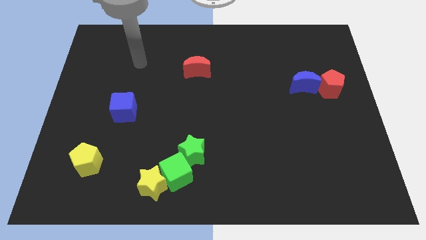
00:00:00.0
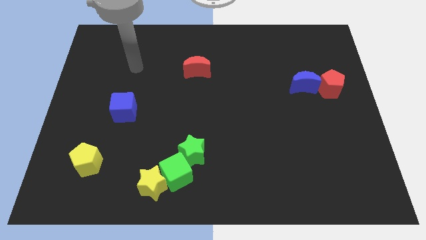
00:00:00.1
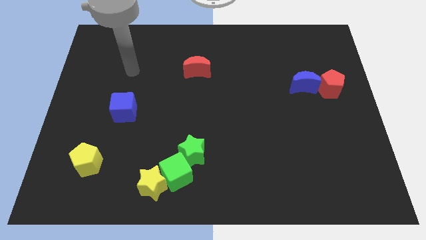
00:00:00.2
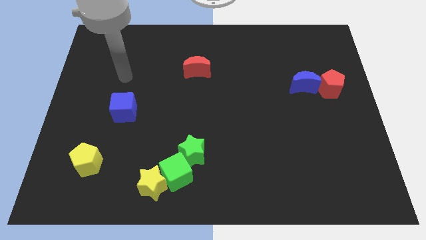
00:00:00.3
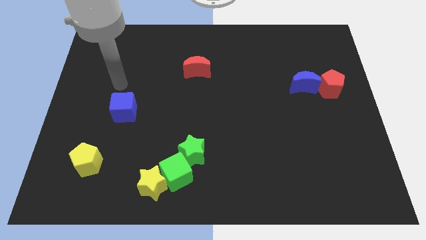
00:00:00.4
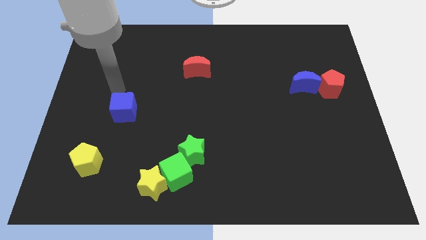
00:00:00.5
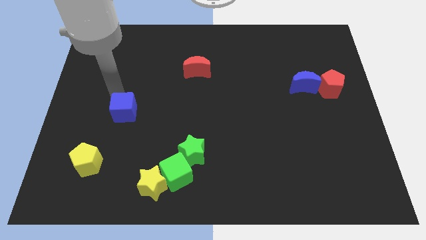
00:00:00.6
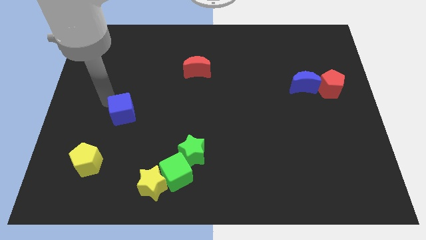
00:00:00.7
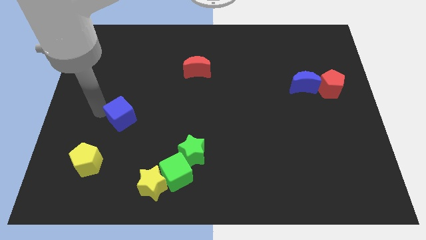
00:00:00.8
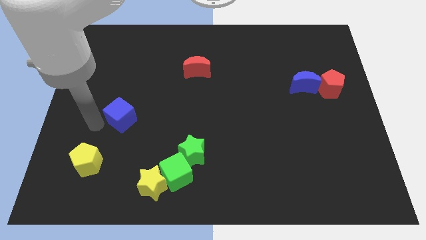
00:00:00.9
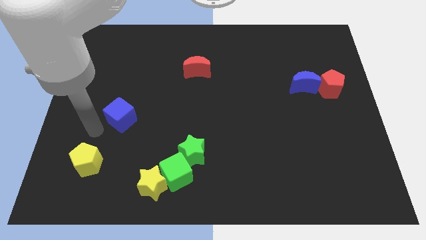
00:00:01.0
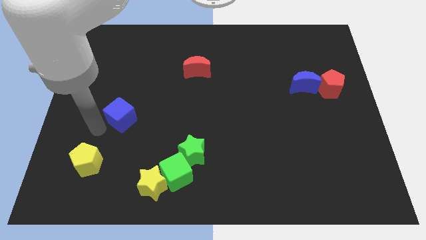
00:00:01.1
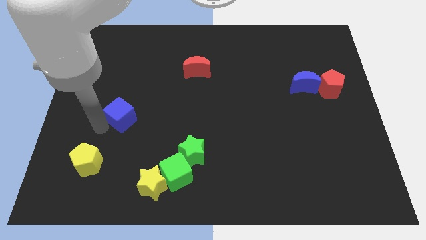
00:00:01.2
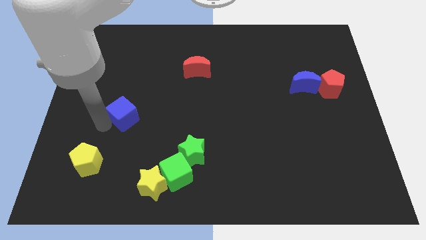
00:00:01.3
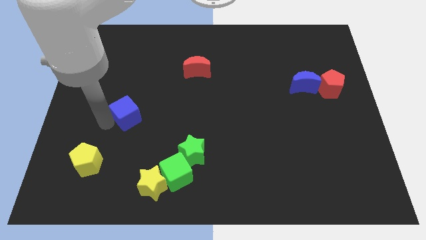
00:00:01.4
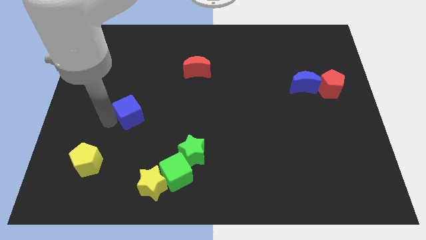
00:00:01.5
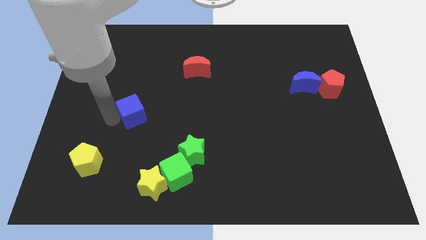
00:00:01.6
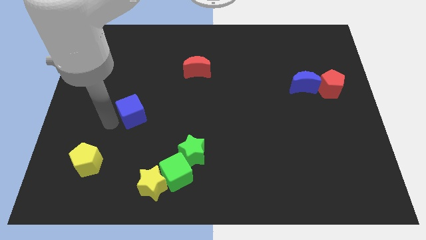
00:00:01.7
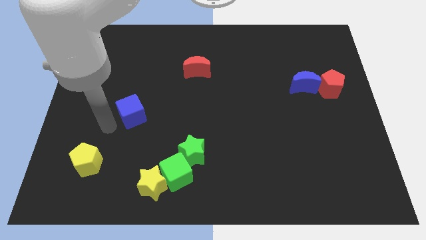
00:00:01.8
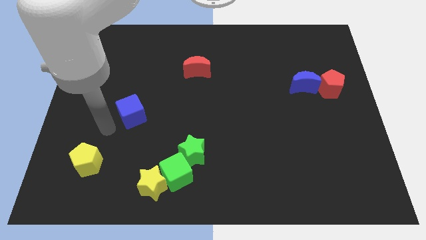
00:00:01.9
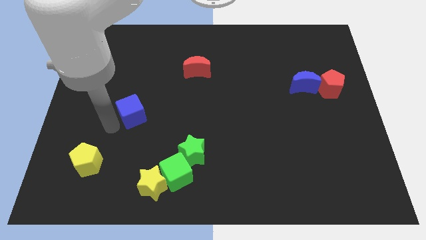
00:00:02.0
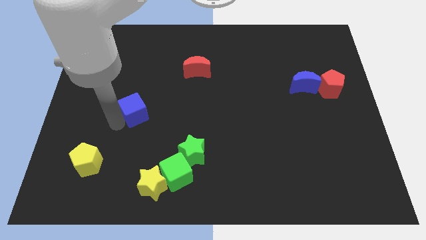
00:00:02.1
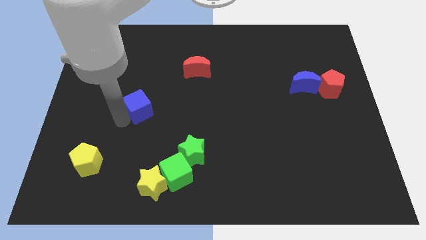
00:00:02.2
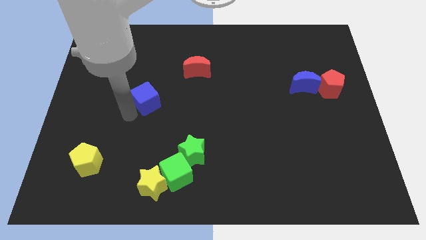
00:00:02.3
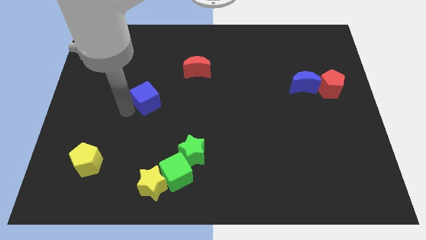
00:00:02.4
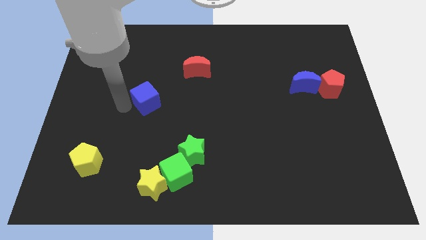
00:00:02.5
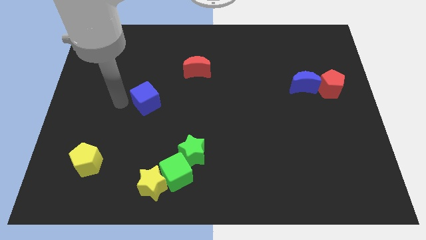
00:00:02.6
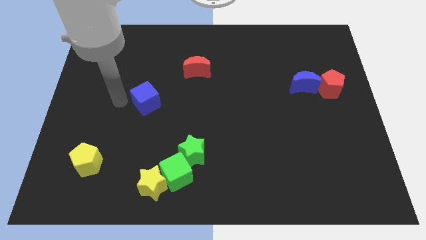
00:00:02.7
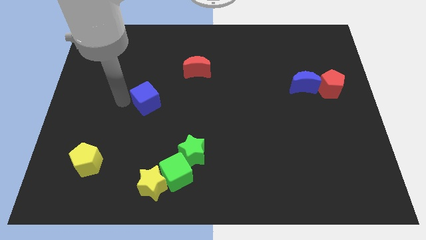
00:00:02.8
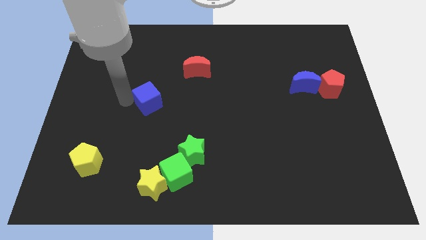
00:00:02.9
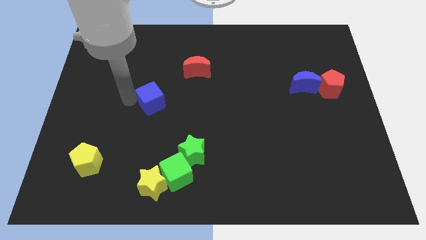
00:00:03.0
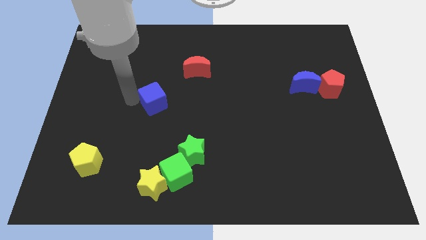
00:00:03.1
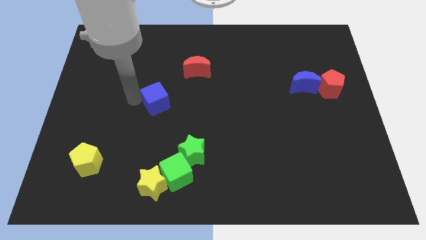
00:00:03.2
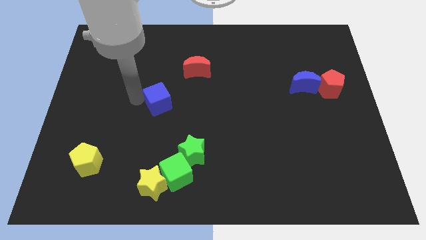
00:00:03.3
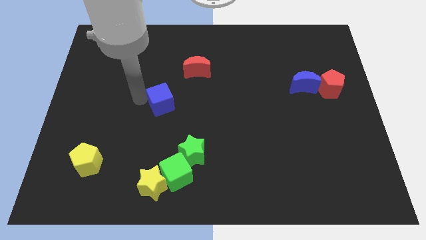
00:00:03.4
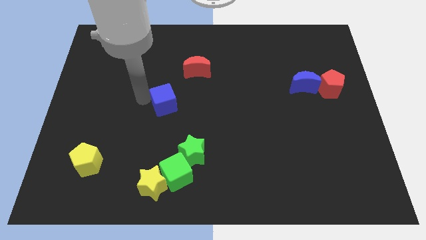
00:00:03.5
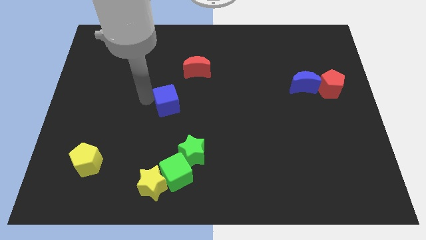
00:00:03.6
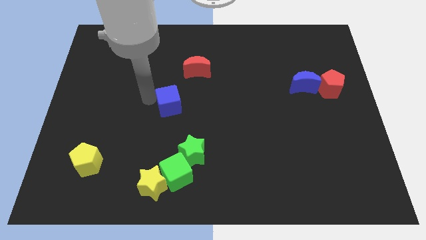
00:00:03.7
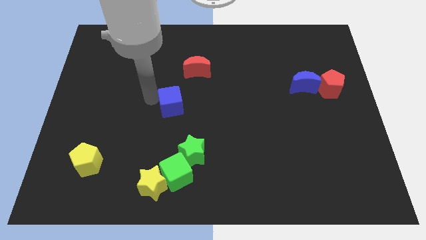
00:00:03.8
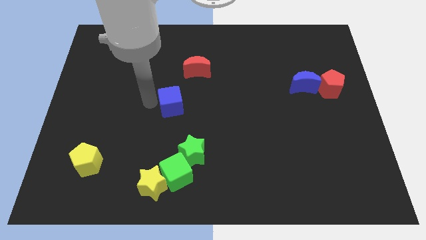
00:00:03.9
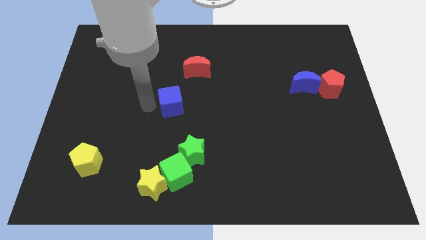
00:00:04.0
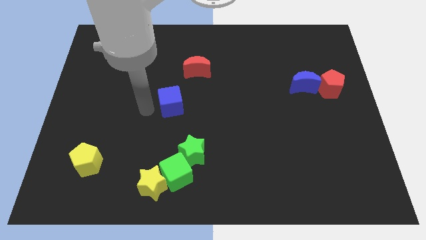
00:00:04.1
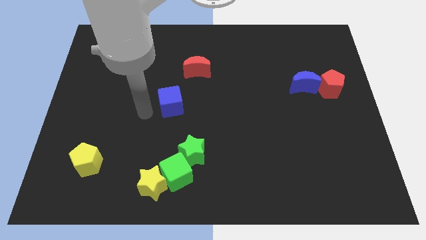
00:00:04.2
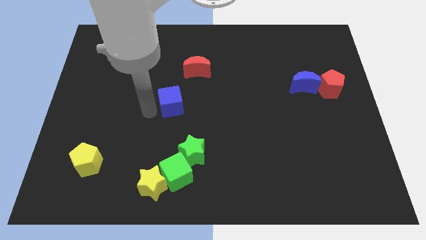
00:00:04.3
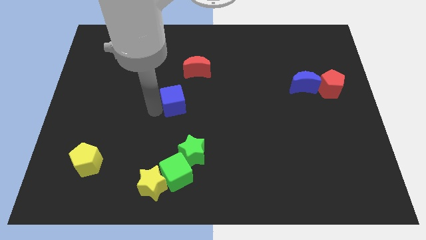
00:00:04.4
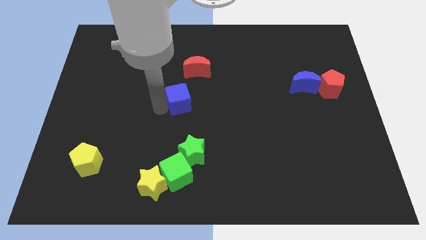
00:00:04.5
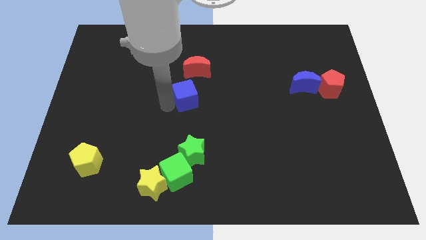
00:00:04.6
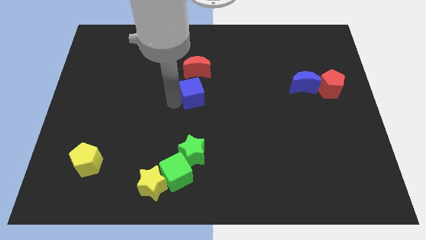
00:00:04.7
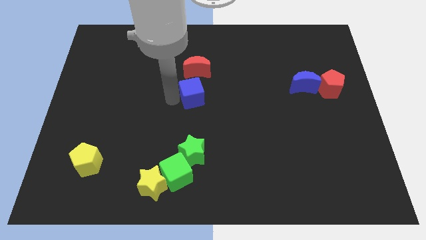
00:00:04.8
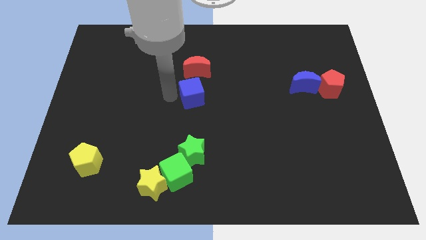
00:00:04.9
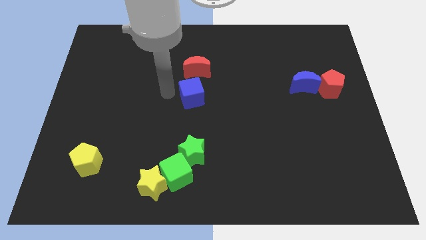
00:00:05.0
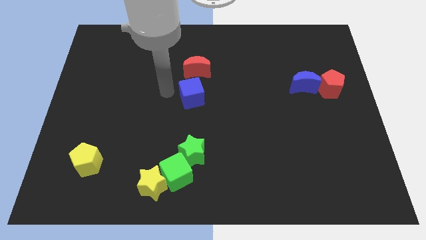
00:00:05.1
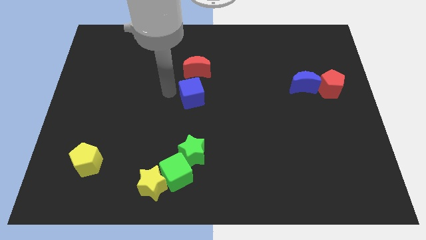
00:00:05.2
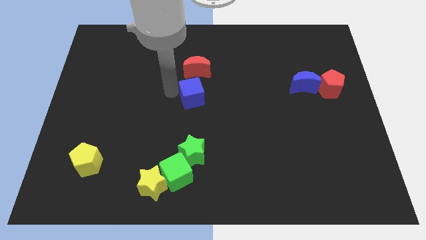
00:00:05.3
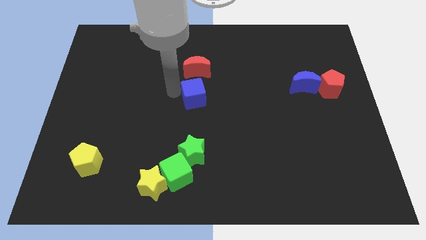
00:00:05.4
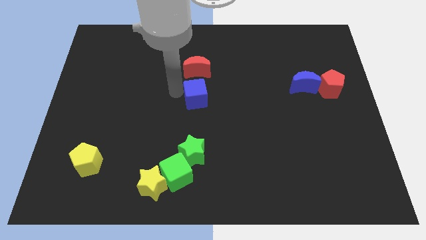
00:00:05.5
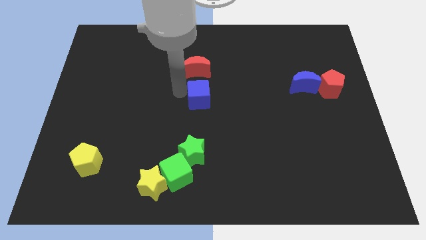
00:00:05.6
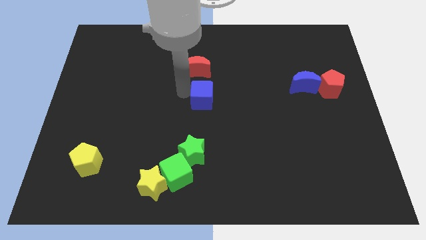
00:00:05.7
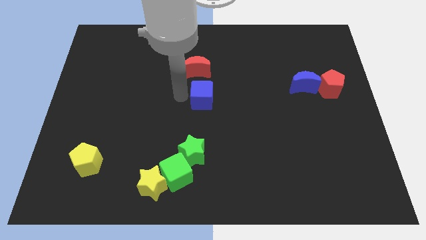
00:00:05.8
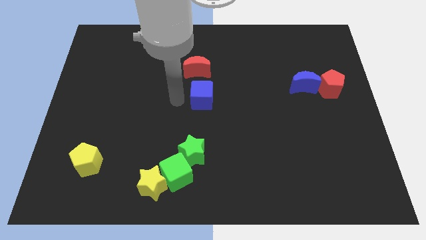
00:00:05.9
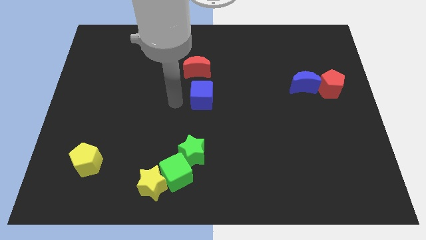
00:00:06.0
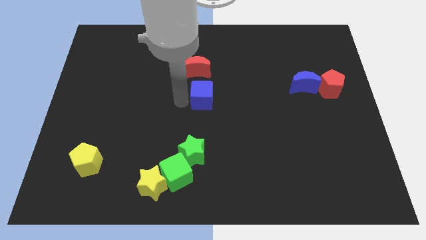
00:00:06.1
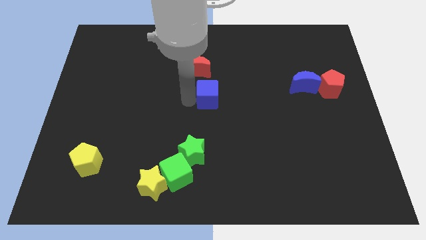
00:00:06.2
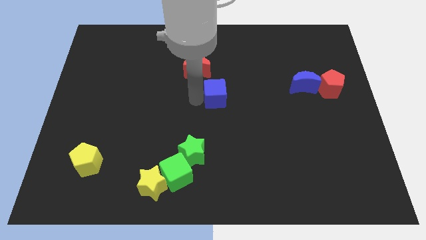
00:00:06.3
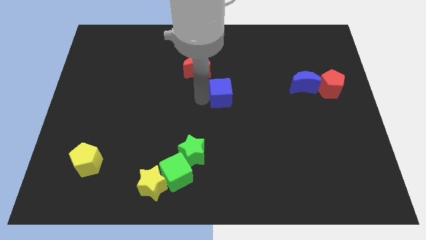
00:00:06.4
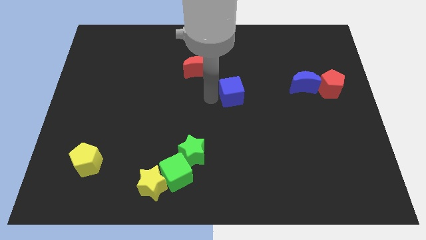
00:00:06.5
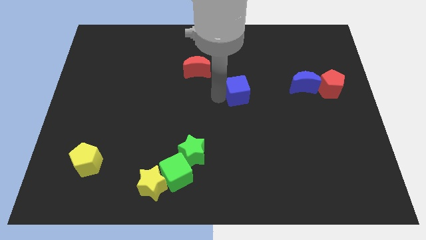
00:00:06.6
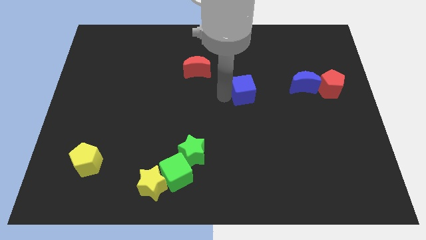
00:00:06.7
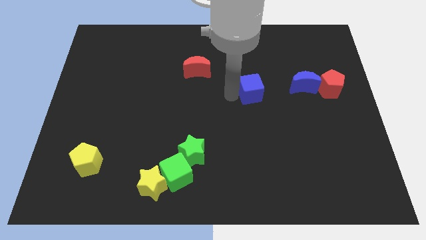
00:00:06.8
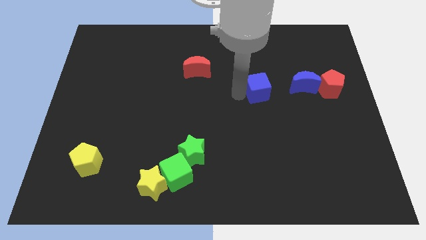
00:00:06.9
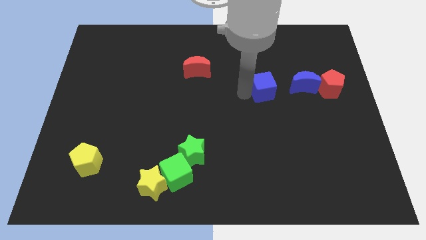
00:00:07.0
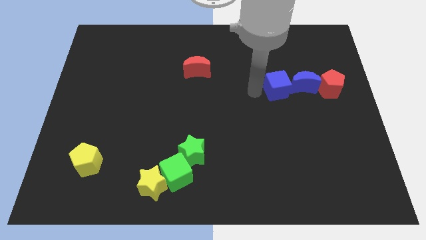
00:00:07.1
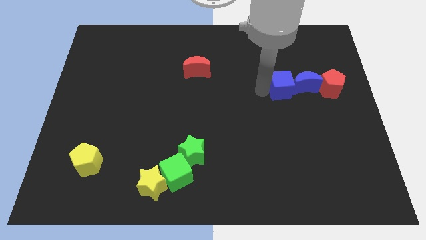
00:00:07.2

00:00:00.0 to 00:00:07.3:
push the blue cube close to the blue moon
